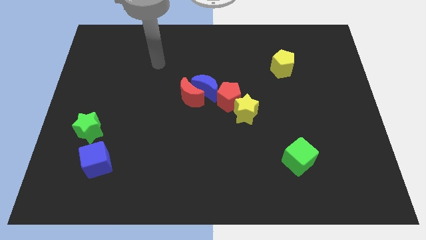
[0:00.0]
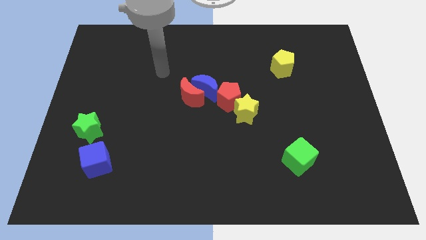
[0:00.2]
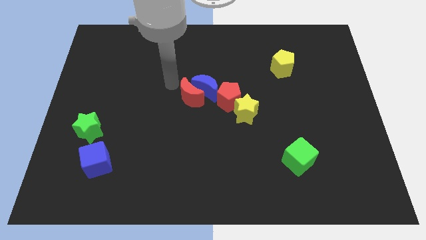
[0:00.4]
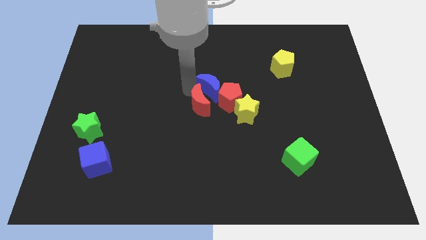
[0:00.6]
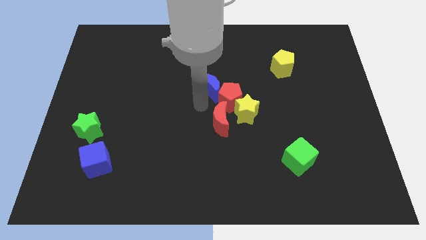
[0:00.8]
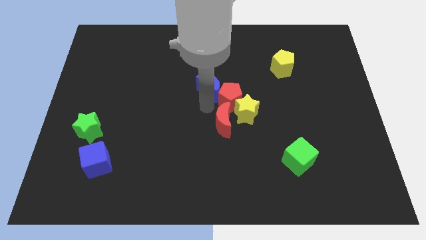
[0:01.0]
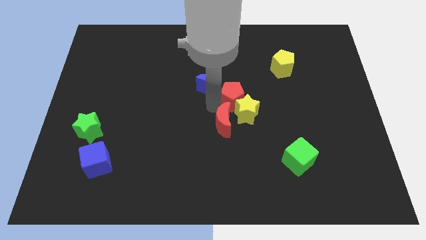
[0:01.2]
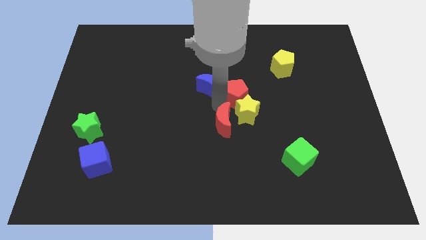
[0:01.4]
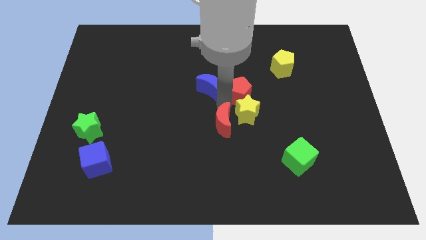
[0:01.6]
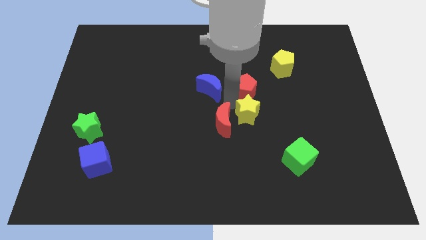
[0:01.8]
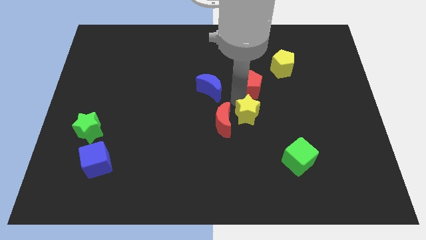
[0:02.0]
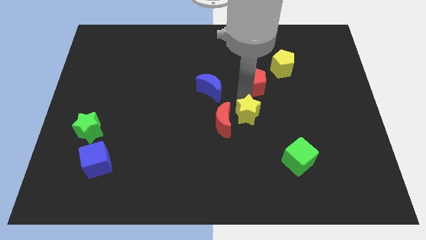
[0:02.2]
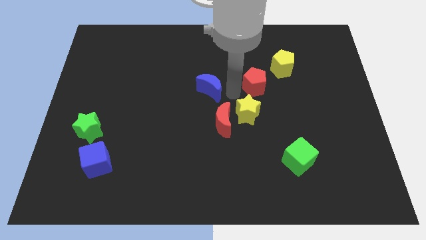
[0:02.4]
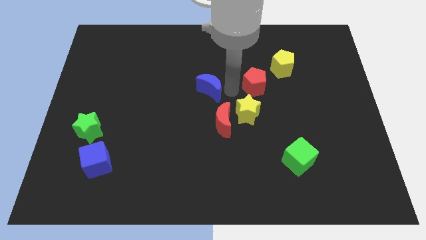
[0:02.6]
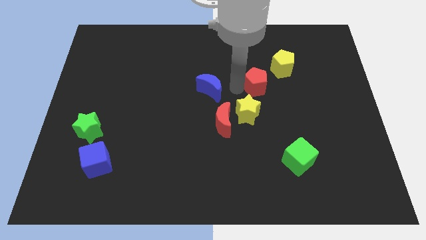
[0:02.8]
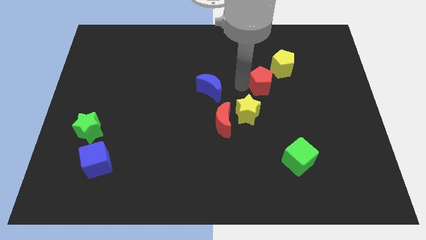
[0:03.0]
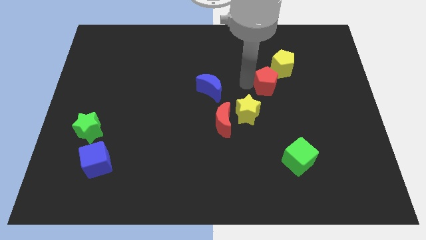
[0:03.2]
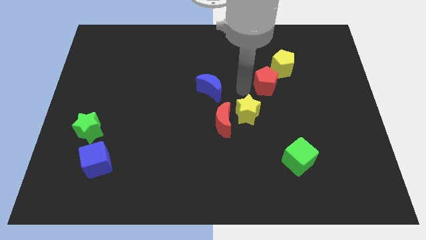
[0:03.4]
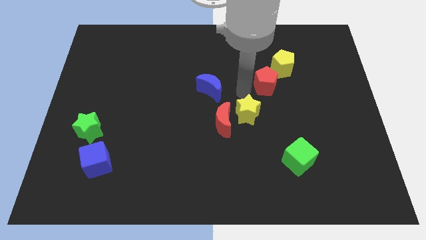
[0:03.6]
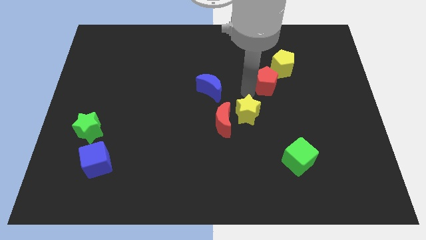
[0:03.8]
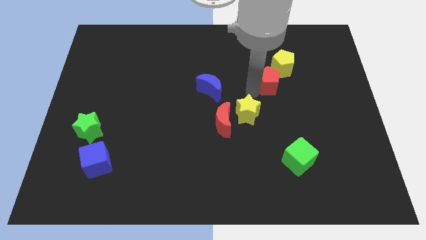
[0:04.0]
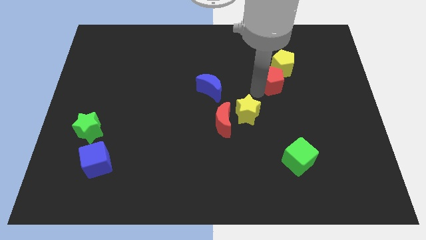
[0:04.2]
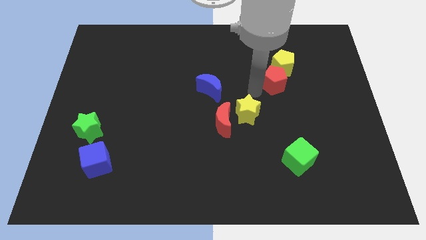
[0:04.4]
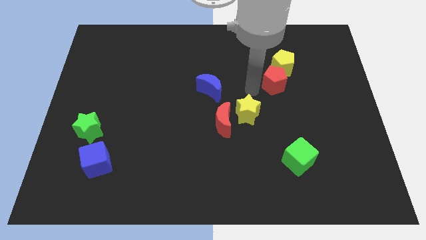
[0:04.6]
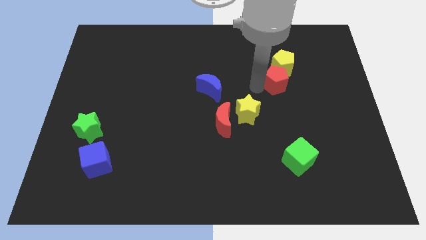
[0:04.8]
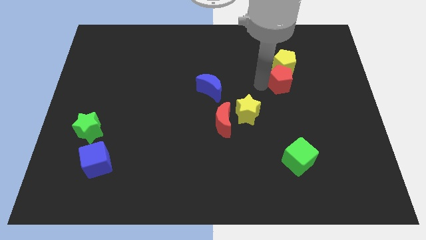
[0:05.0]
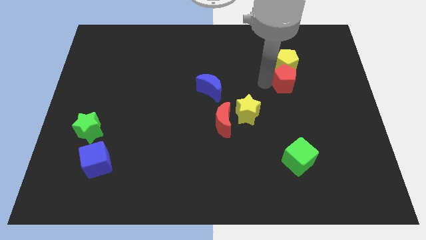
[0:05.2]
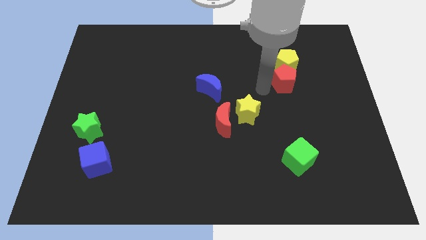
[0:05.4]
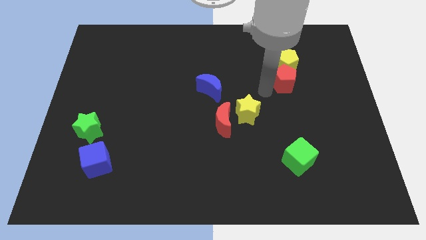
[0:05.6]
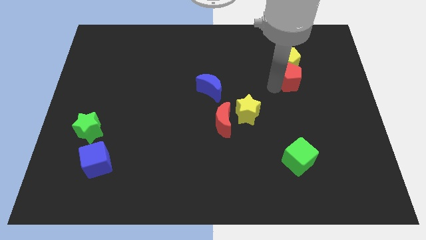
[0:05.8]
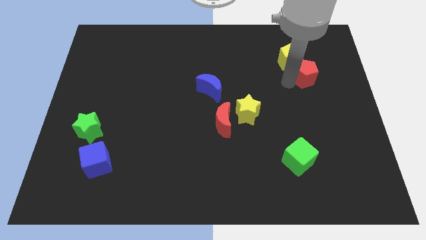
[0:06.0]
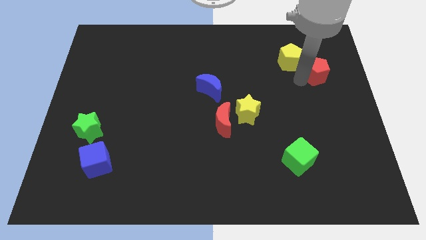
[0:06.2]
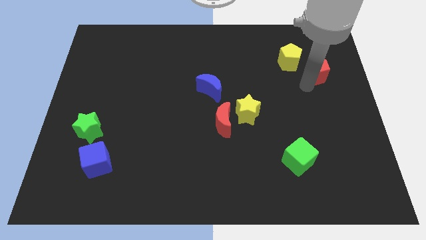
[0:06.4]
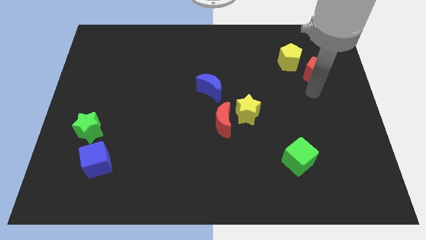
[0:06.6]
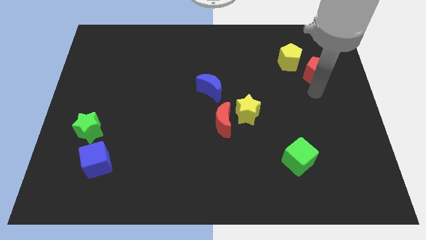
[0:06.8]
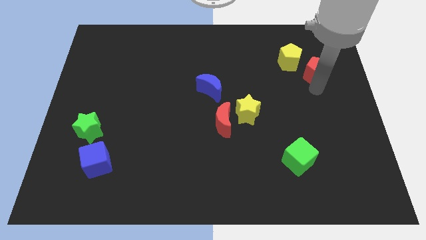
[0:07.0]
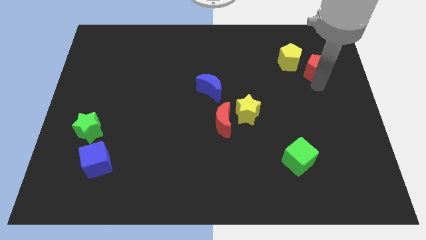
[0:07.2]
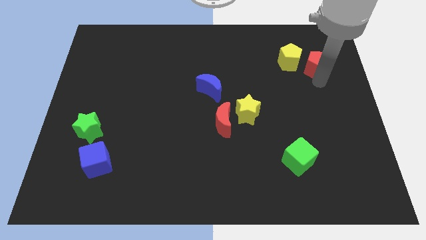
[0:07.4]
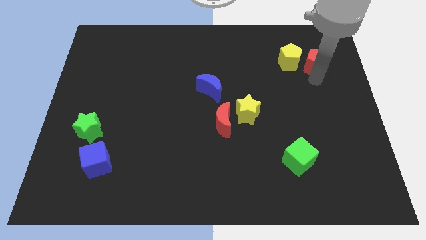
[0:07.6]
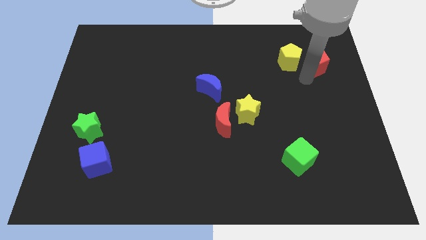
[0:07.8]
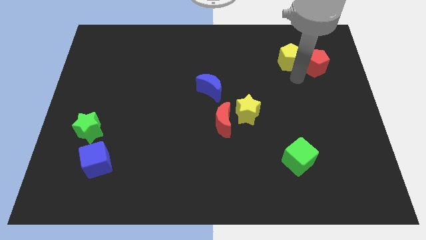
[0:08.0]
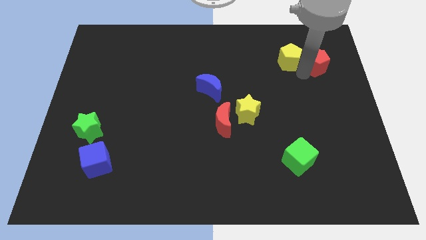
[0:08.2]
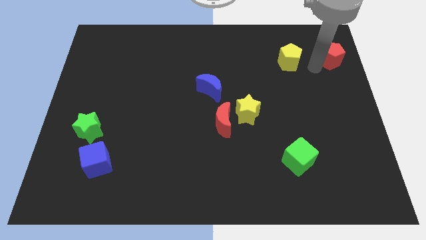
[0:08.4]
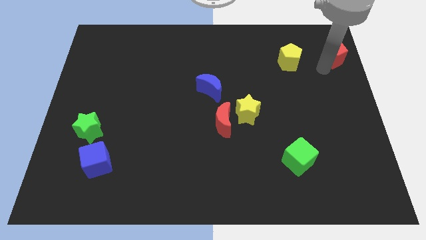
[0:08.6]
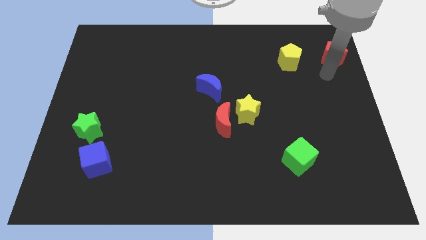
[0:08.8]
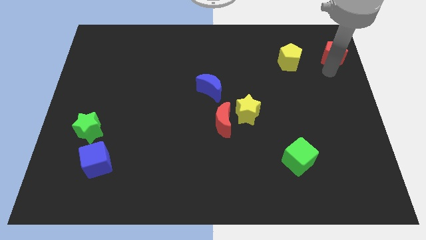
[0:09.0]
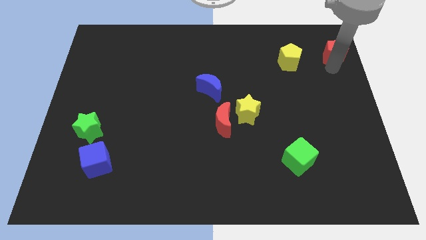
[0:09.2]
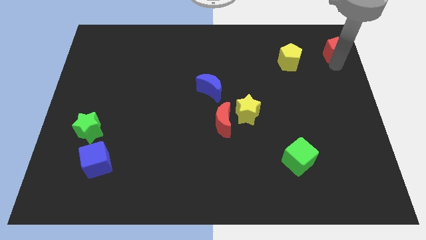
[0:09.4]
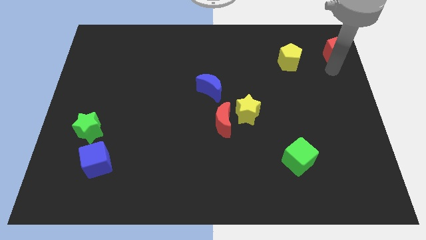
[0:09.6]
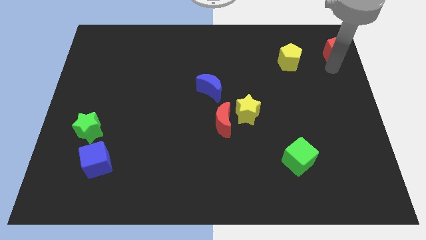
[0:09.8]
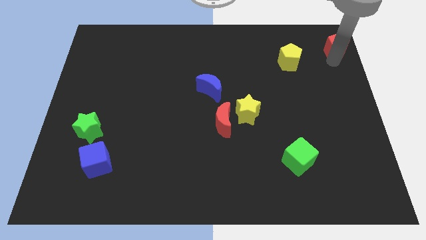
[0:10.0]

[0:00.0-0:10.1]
put the red pentagon to the top right corner

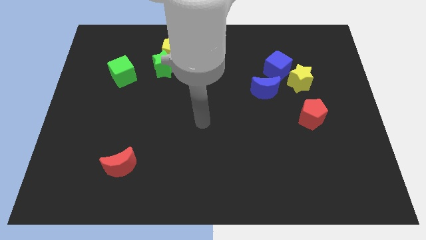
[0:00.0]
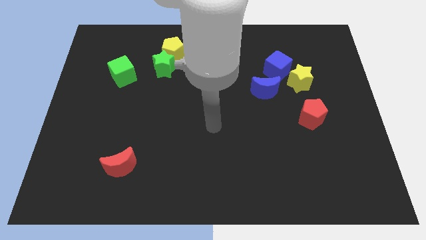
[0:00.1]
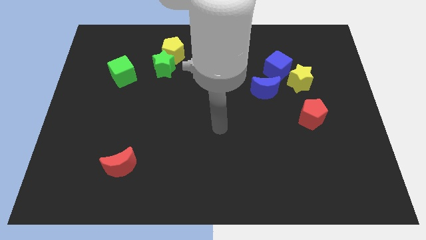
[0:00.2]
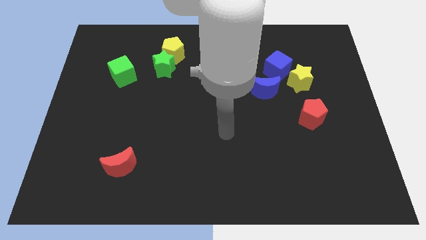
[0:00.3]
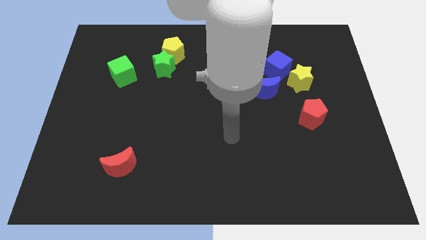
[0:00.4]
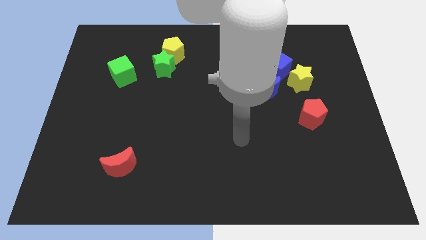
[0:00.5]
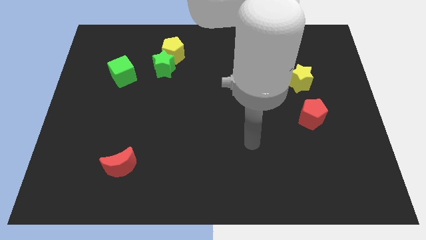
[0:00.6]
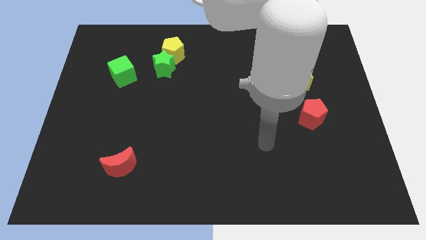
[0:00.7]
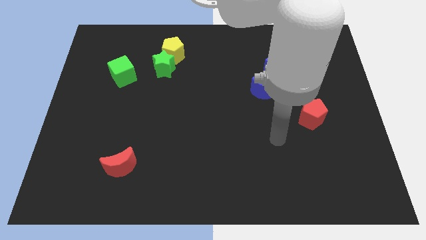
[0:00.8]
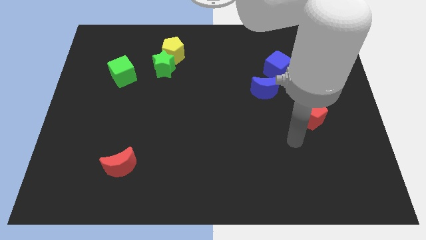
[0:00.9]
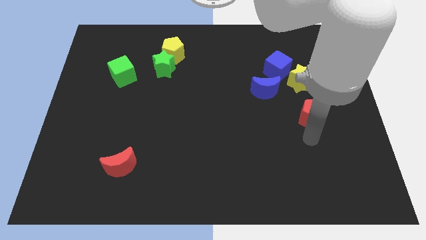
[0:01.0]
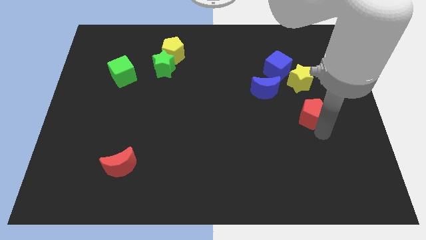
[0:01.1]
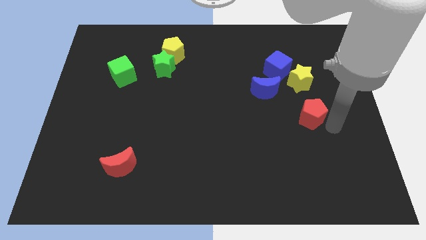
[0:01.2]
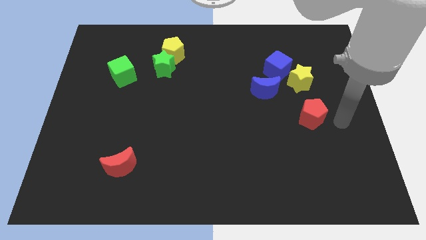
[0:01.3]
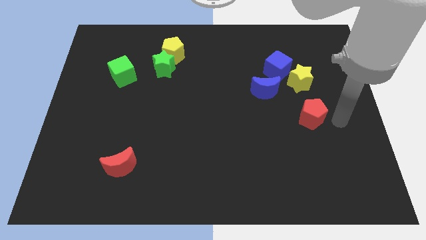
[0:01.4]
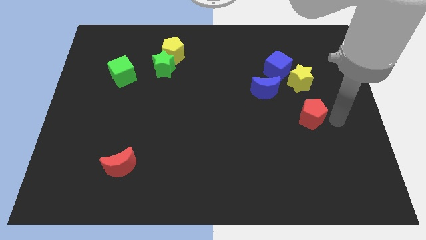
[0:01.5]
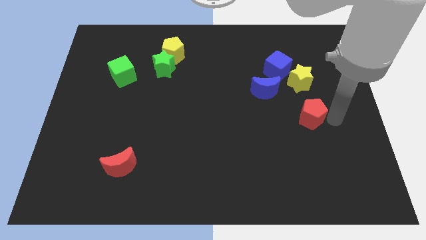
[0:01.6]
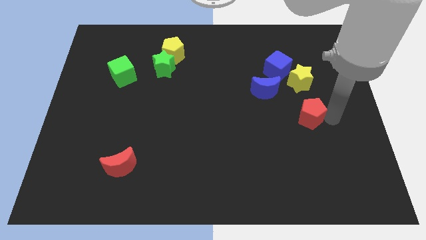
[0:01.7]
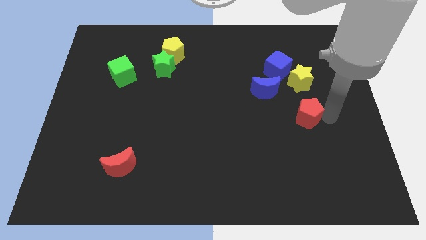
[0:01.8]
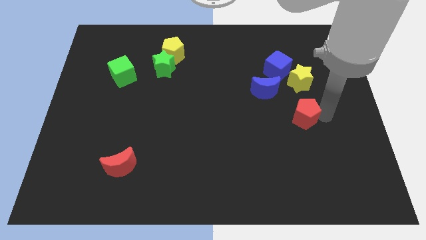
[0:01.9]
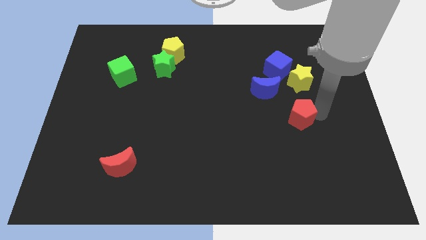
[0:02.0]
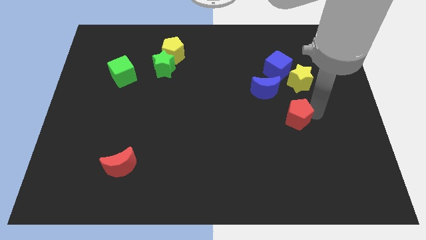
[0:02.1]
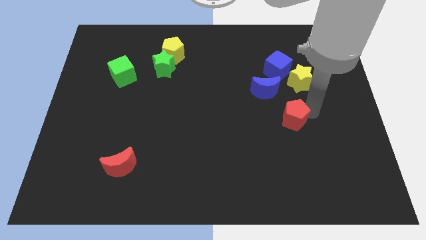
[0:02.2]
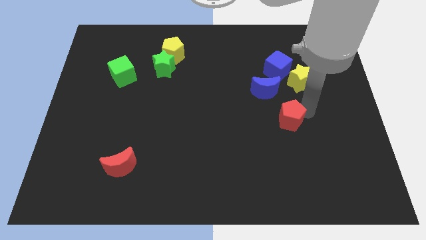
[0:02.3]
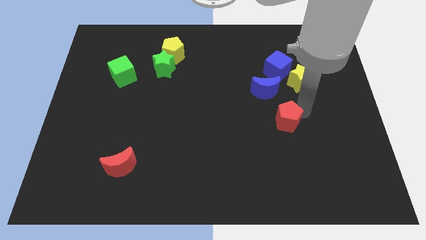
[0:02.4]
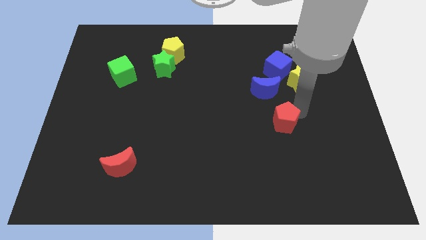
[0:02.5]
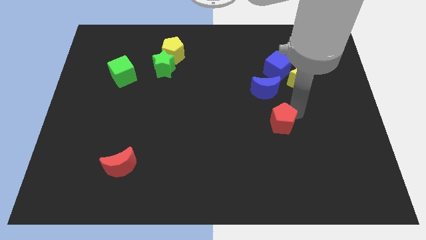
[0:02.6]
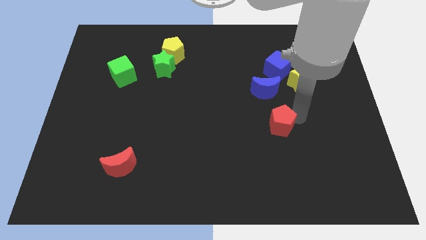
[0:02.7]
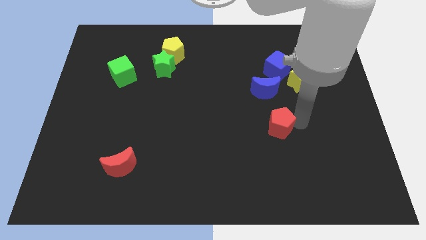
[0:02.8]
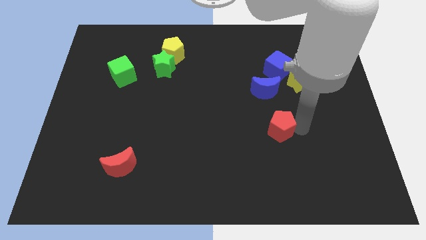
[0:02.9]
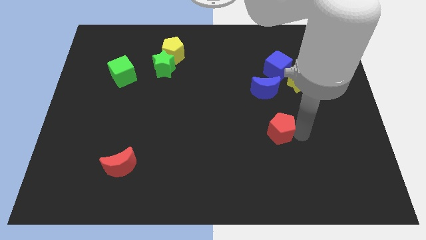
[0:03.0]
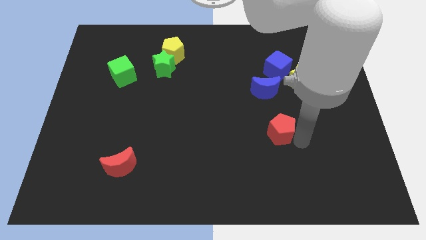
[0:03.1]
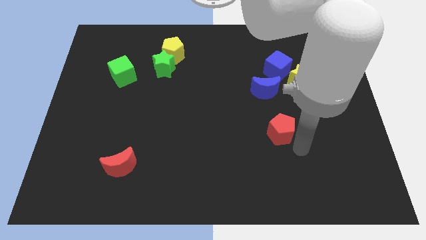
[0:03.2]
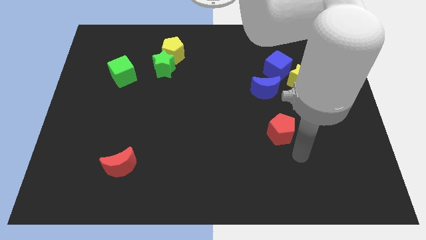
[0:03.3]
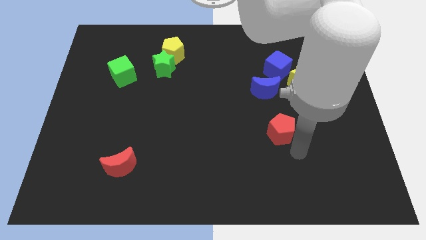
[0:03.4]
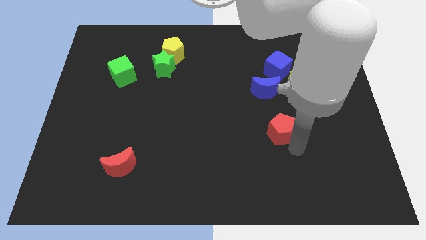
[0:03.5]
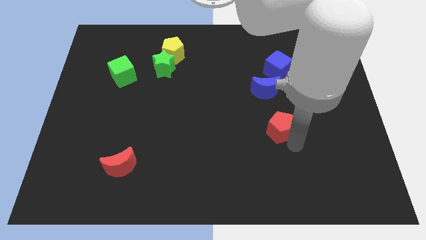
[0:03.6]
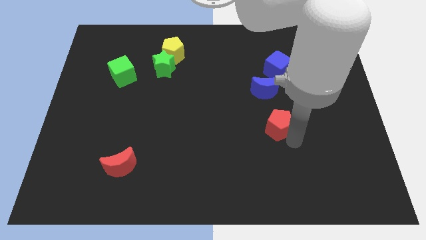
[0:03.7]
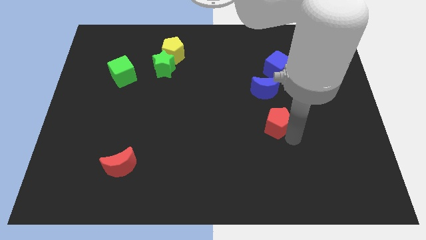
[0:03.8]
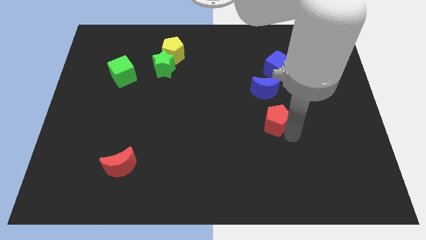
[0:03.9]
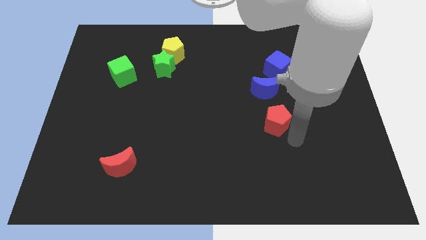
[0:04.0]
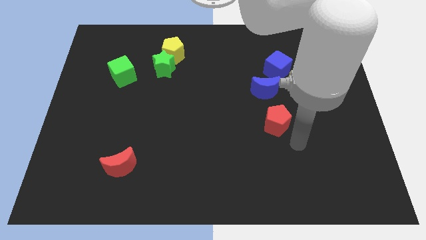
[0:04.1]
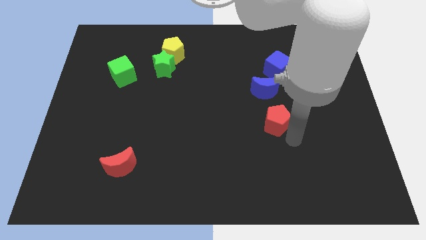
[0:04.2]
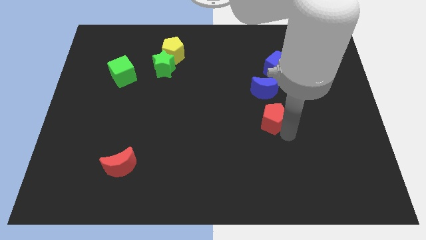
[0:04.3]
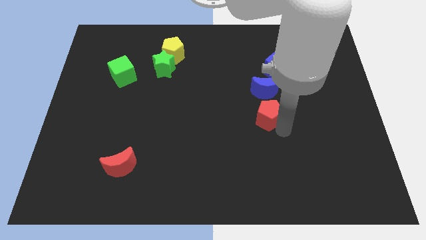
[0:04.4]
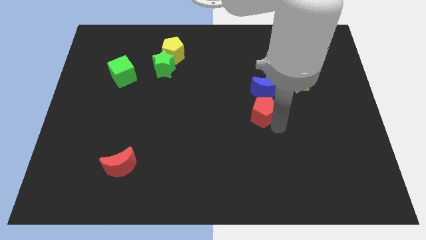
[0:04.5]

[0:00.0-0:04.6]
put the red pentagon to the center of the board
